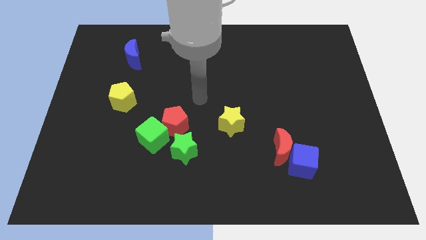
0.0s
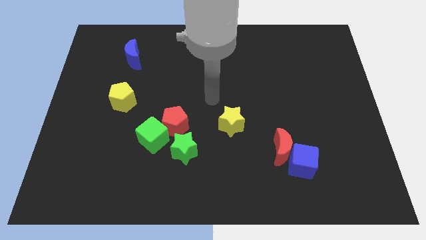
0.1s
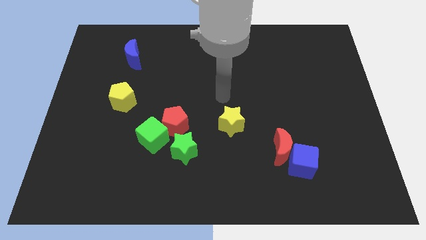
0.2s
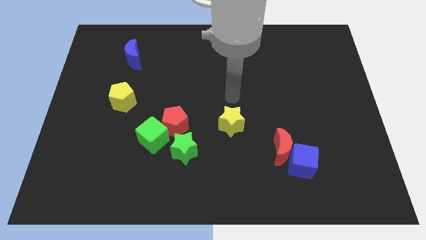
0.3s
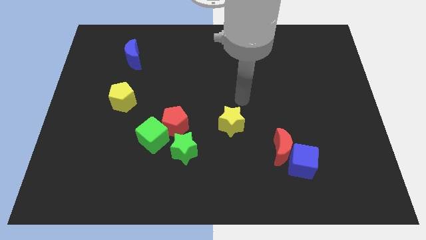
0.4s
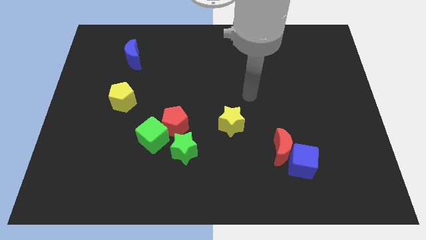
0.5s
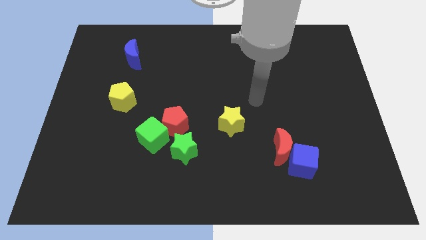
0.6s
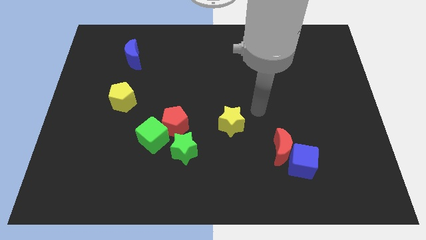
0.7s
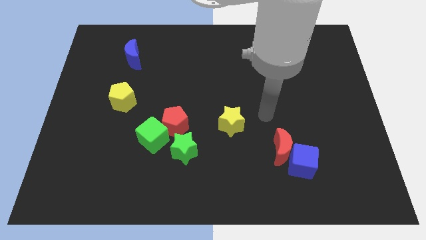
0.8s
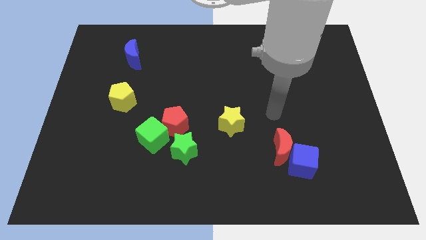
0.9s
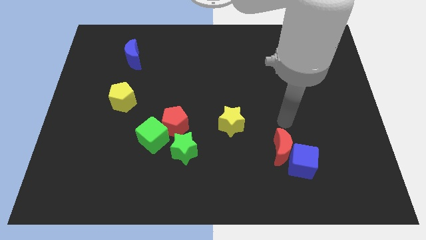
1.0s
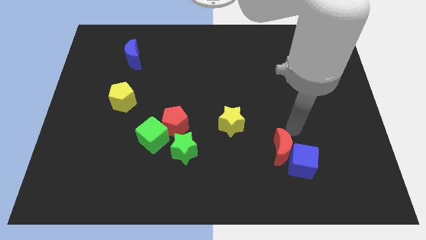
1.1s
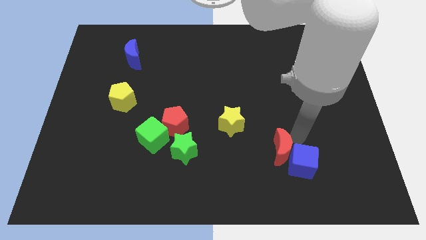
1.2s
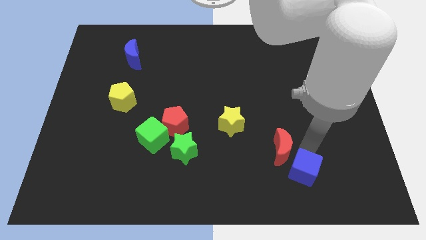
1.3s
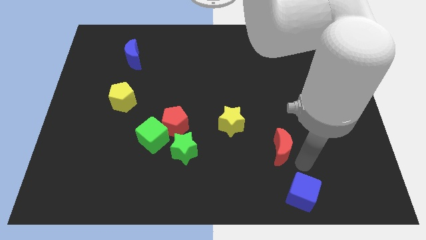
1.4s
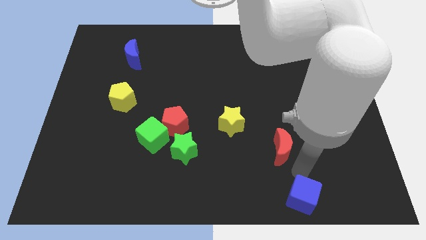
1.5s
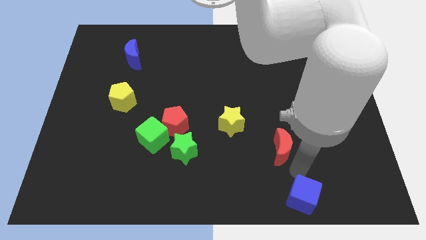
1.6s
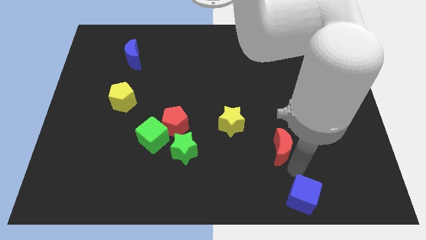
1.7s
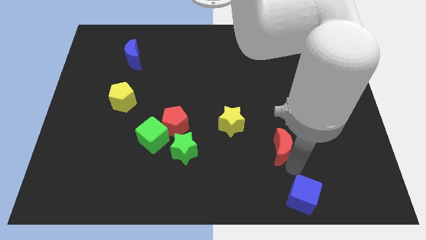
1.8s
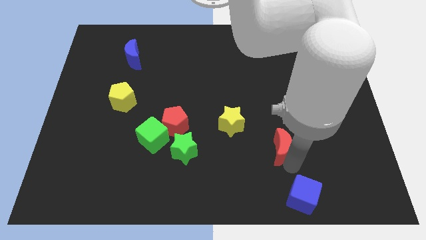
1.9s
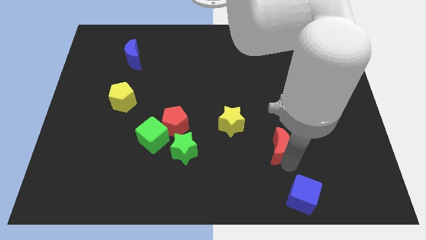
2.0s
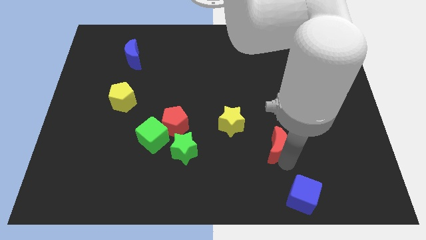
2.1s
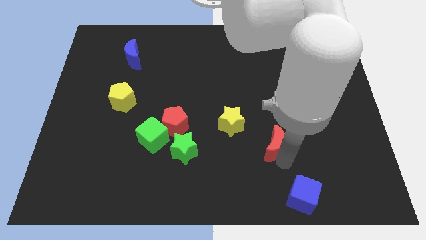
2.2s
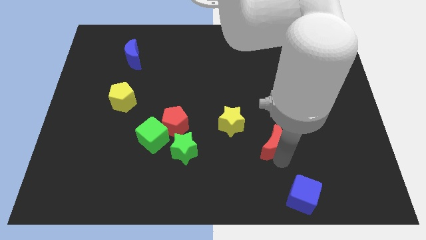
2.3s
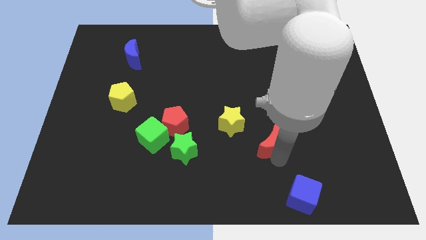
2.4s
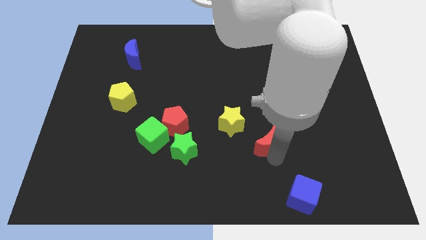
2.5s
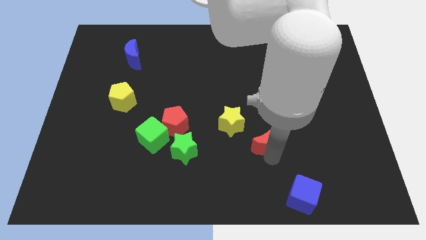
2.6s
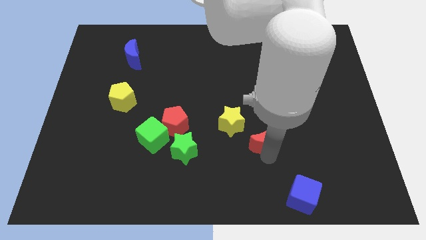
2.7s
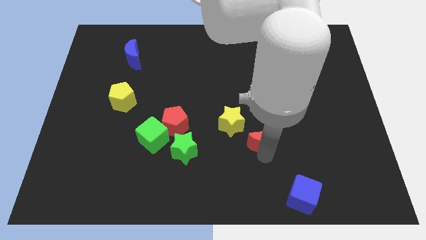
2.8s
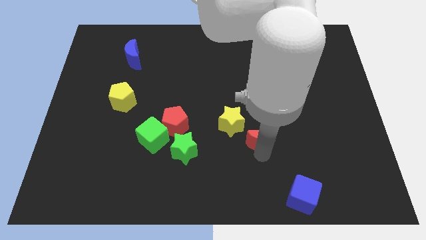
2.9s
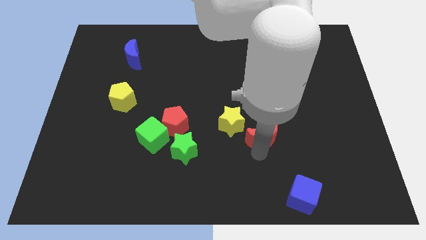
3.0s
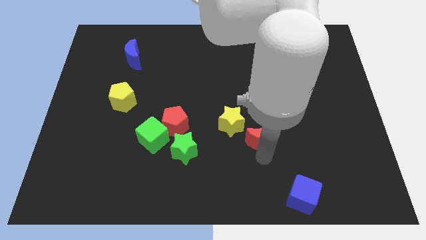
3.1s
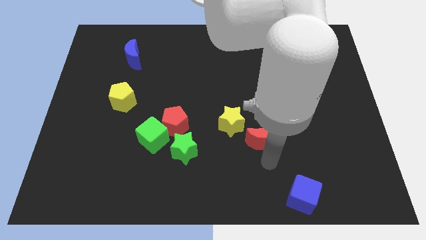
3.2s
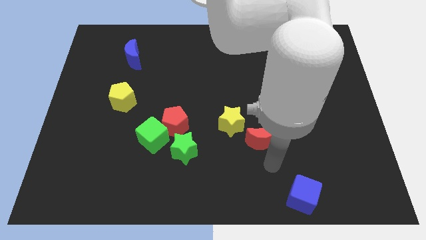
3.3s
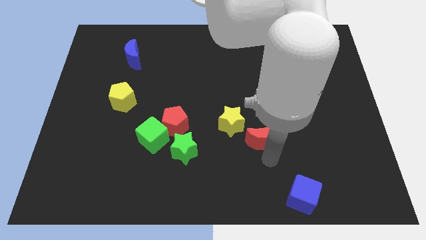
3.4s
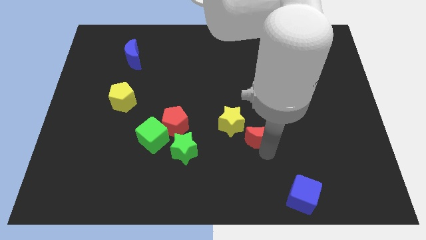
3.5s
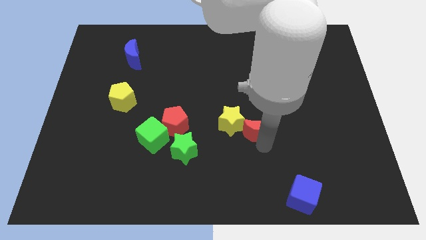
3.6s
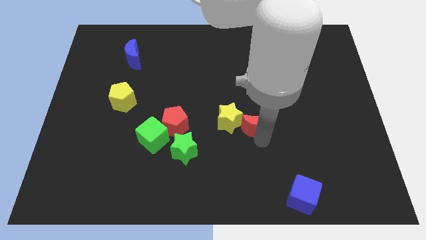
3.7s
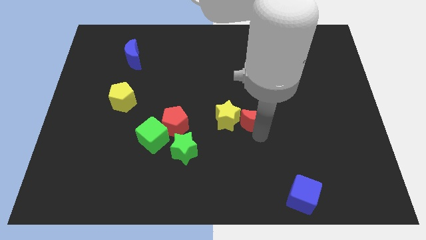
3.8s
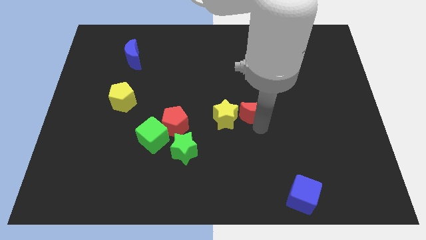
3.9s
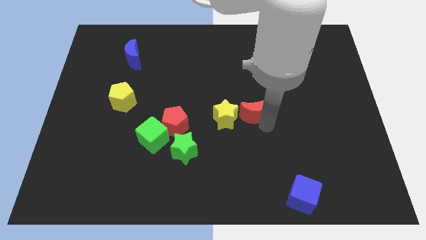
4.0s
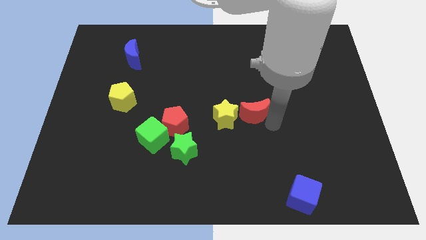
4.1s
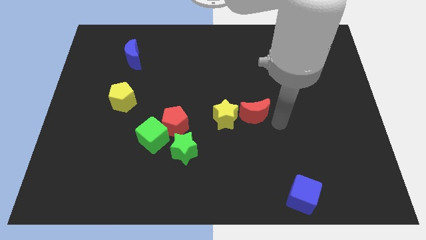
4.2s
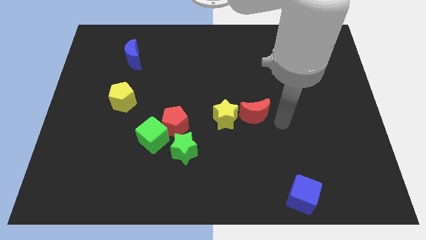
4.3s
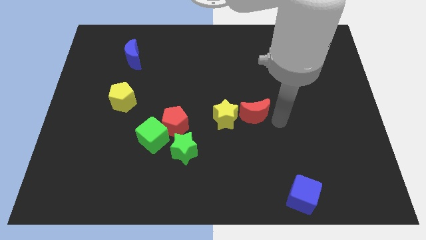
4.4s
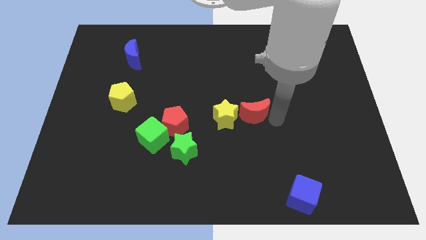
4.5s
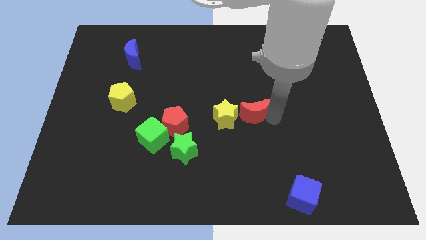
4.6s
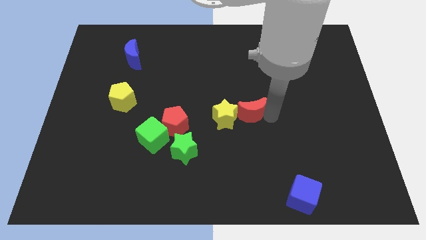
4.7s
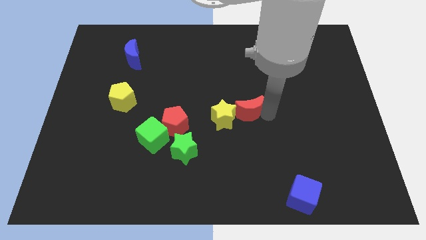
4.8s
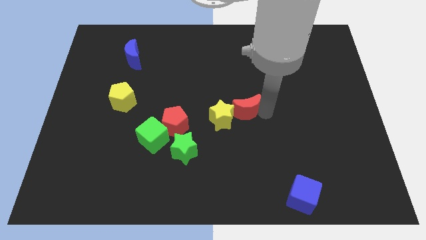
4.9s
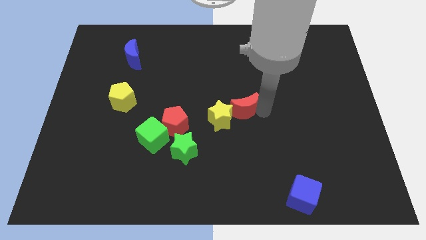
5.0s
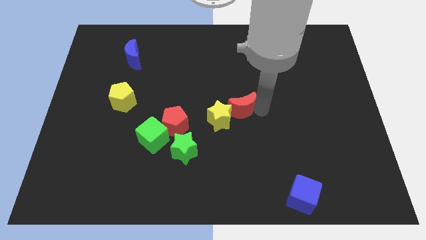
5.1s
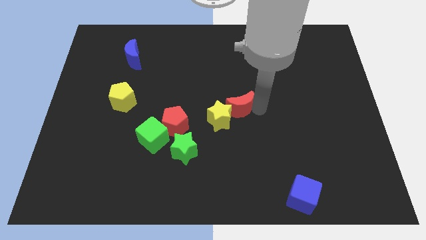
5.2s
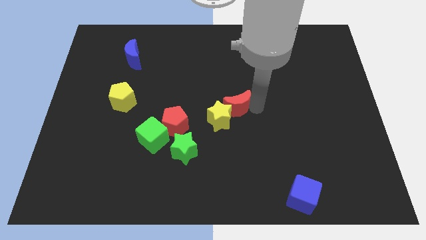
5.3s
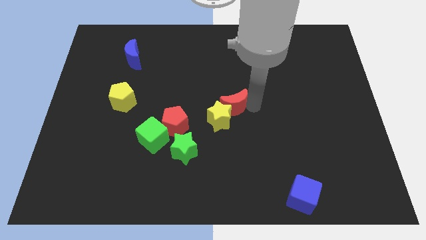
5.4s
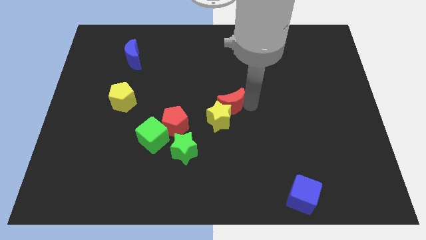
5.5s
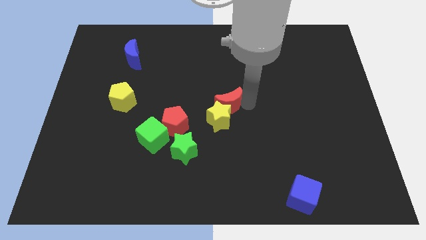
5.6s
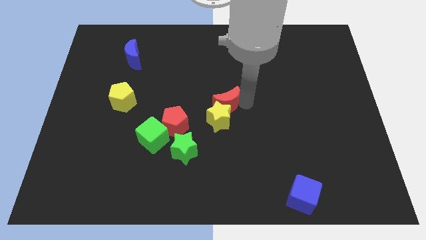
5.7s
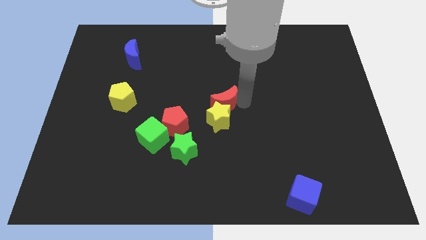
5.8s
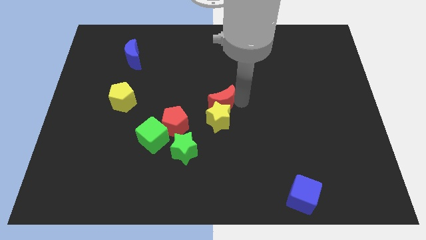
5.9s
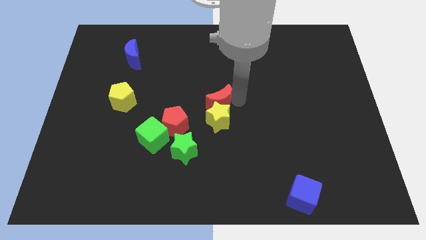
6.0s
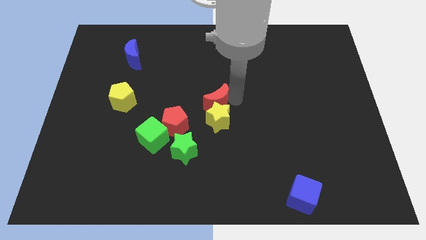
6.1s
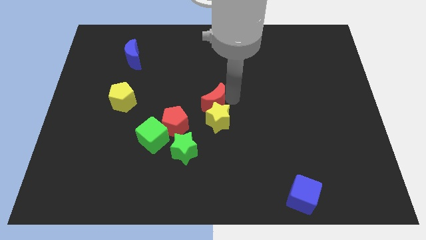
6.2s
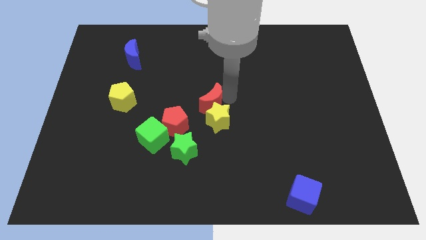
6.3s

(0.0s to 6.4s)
move the red moon up and left diagonally

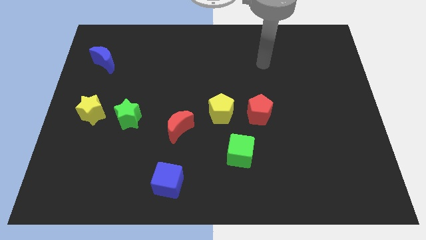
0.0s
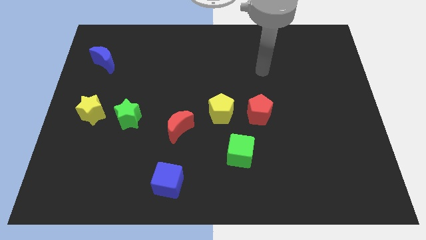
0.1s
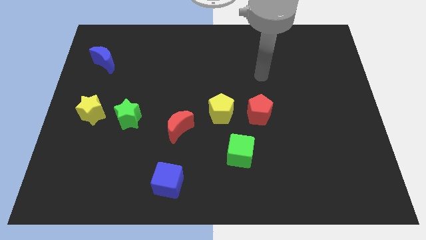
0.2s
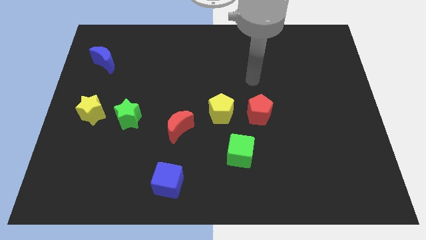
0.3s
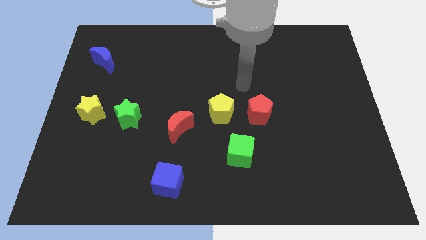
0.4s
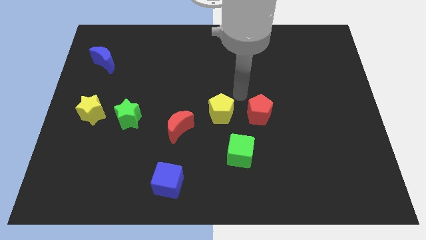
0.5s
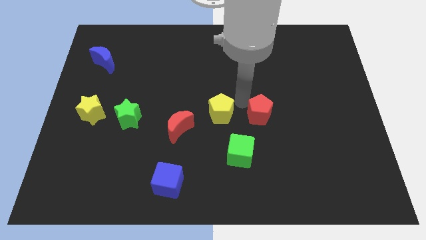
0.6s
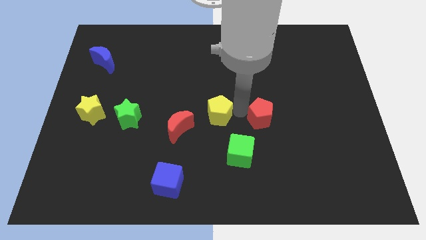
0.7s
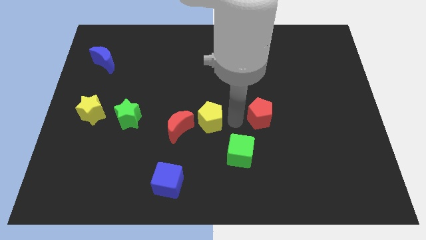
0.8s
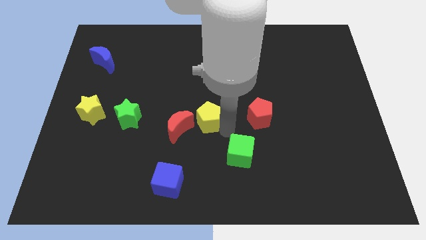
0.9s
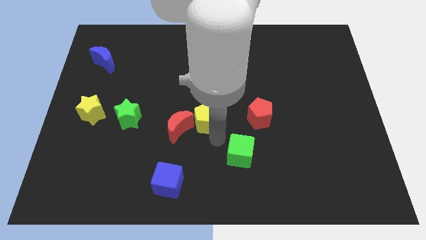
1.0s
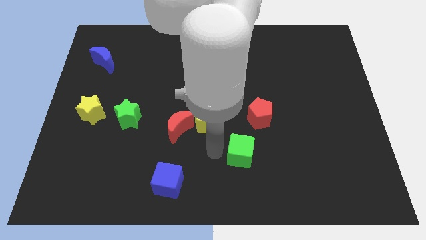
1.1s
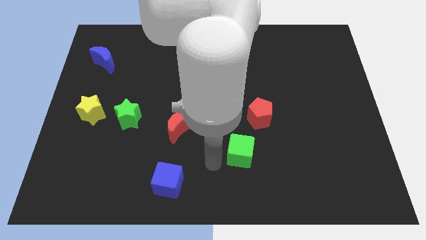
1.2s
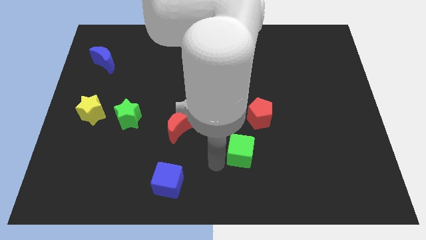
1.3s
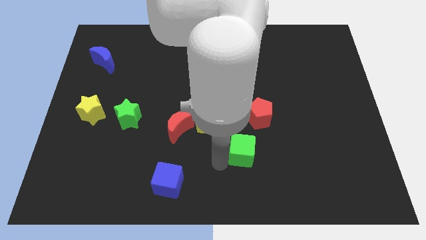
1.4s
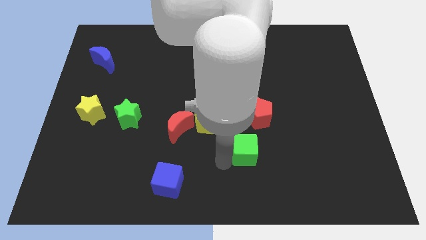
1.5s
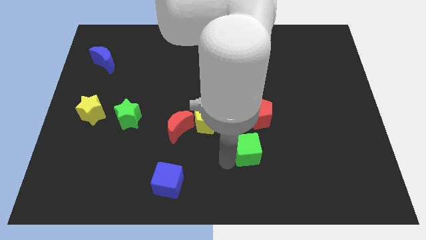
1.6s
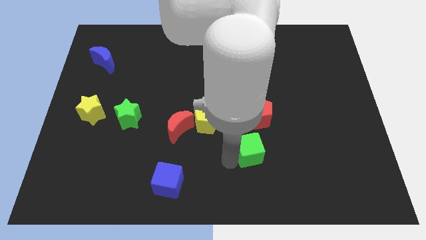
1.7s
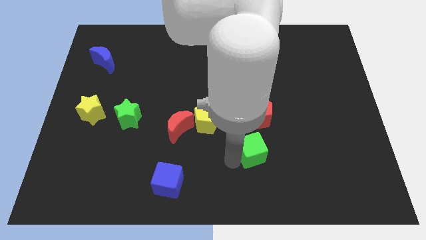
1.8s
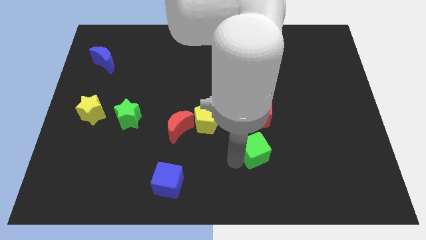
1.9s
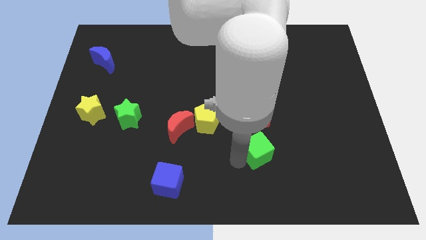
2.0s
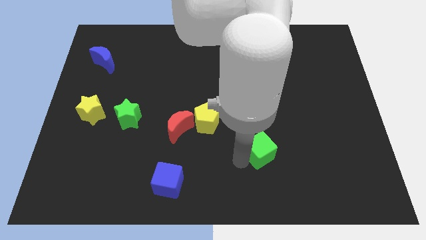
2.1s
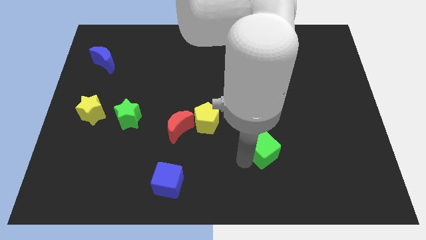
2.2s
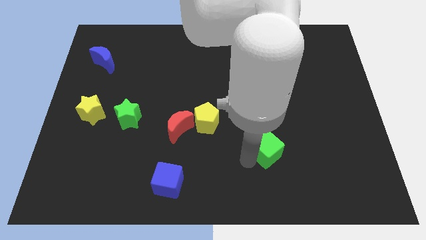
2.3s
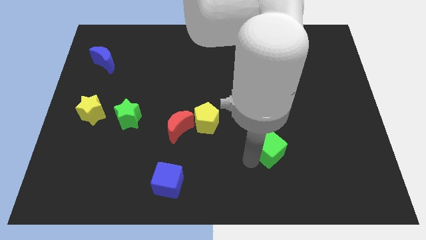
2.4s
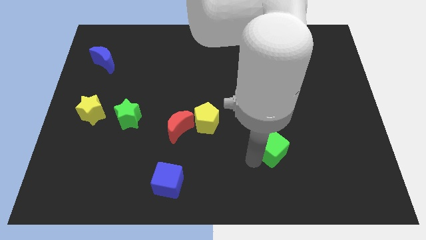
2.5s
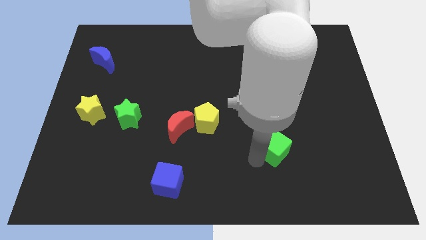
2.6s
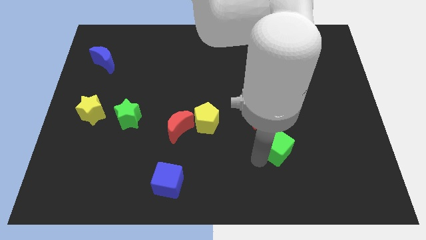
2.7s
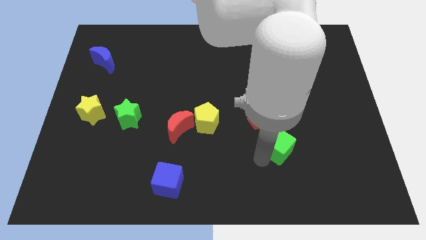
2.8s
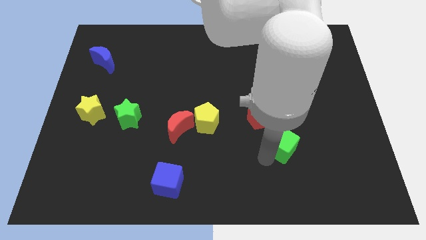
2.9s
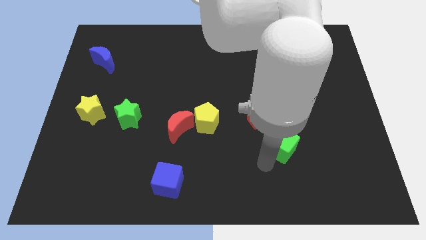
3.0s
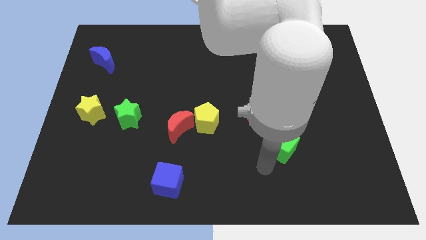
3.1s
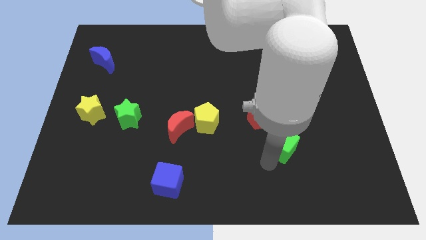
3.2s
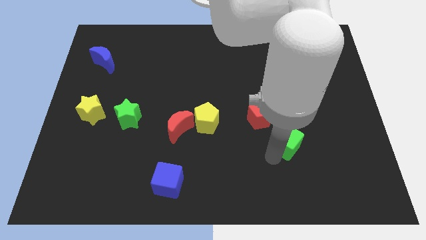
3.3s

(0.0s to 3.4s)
slide the green cube upwards and then right a little bit
